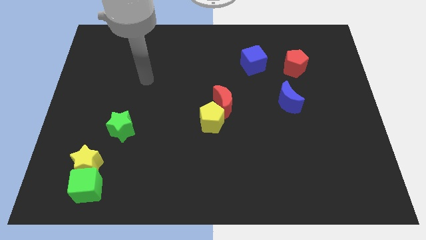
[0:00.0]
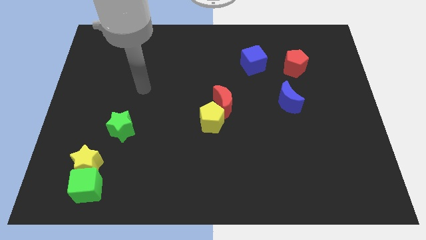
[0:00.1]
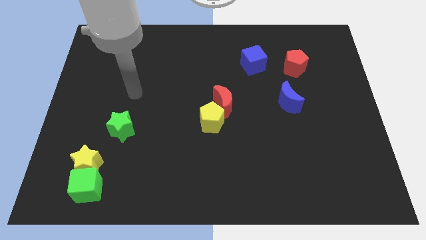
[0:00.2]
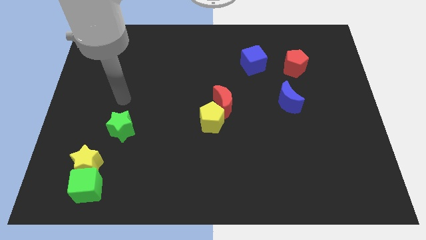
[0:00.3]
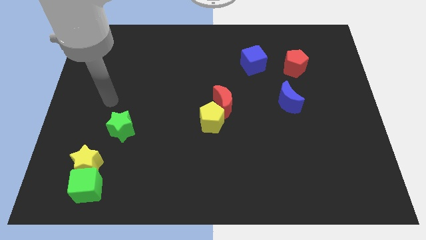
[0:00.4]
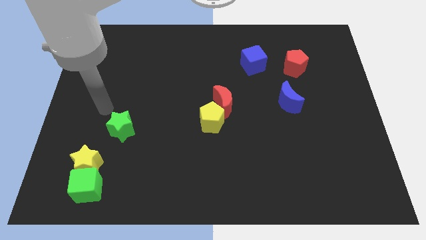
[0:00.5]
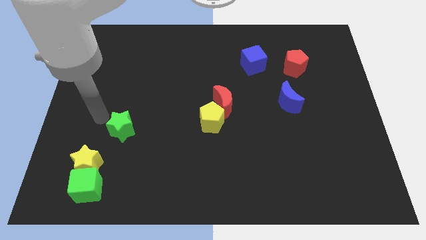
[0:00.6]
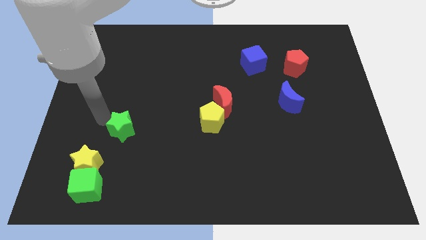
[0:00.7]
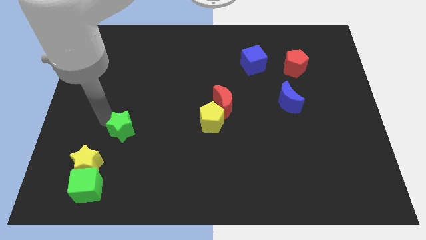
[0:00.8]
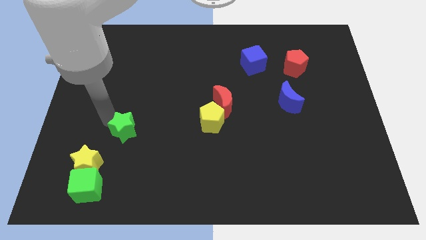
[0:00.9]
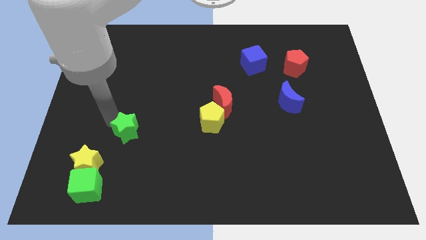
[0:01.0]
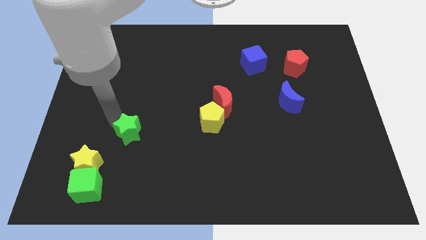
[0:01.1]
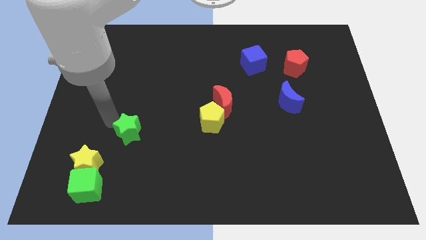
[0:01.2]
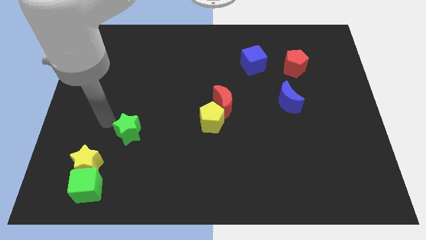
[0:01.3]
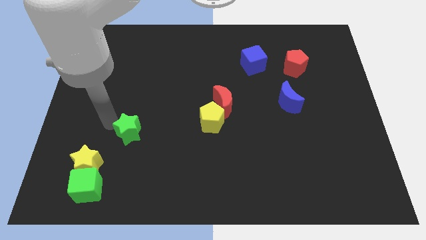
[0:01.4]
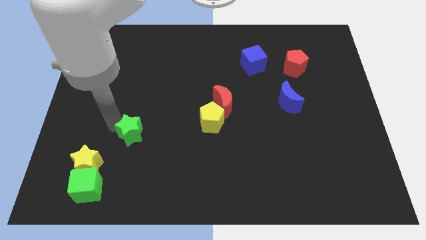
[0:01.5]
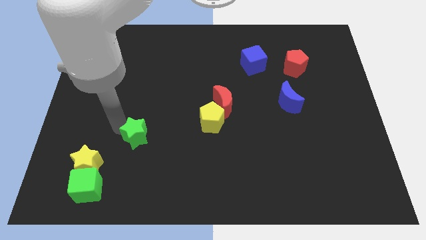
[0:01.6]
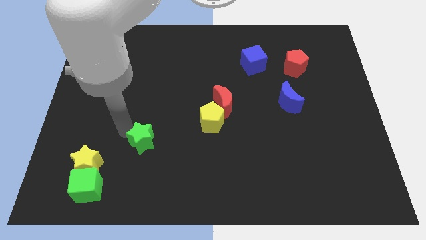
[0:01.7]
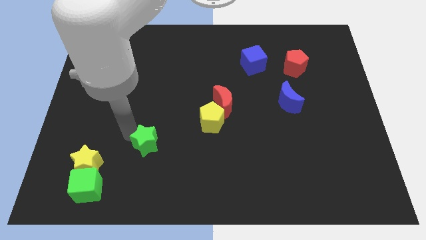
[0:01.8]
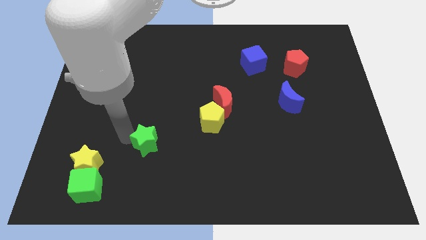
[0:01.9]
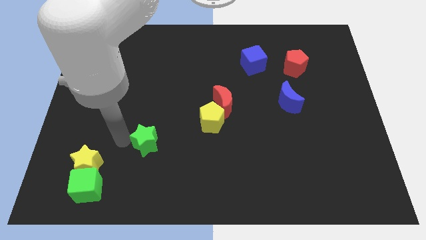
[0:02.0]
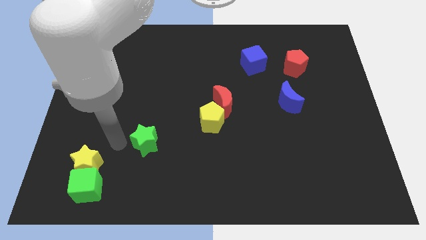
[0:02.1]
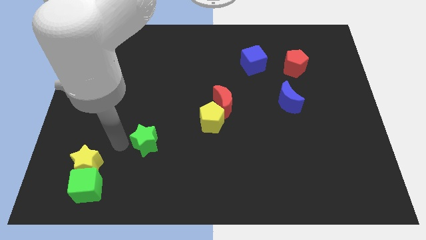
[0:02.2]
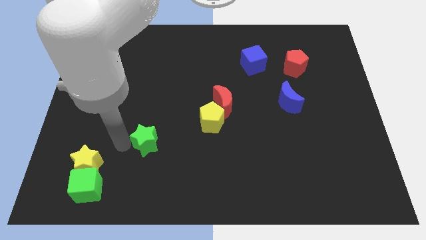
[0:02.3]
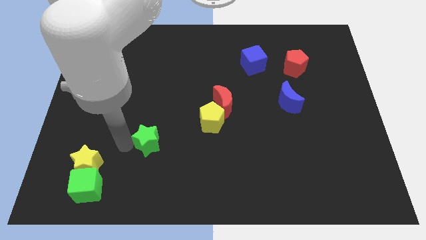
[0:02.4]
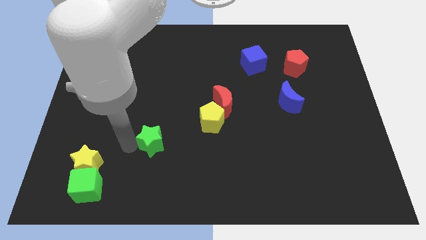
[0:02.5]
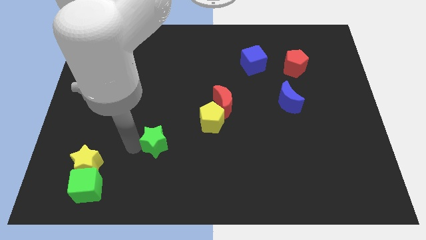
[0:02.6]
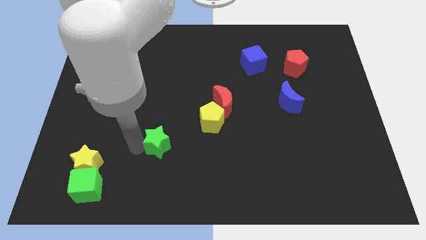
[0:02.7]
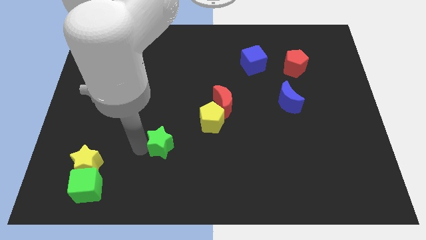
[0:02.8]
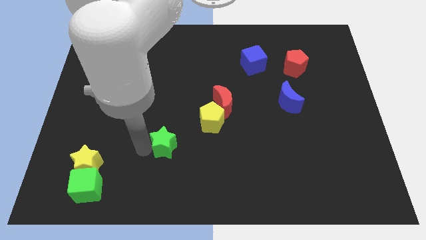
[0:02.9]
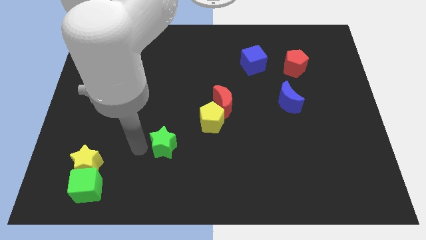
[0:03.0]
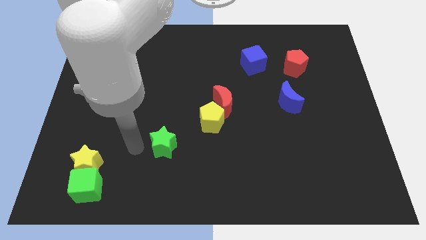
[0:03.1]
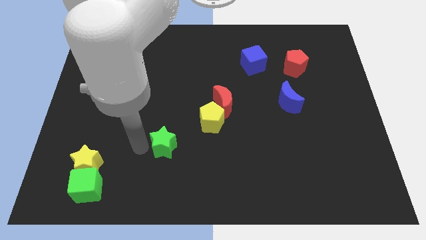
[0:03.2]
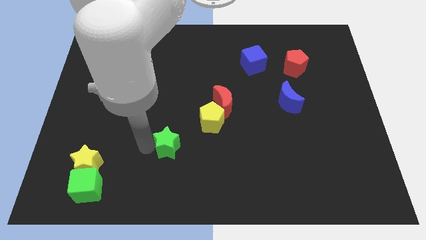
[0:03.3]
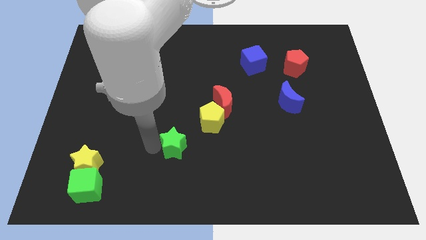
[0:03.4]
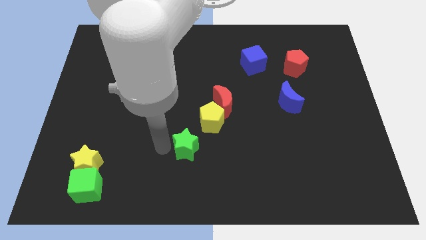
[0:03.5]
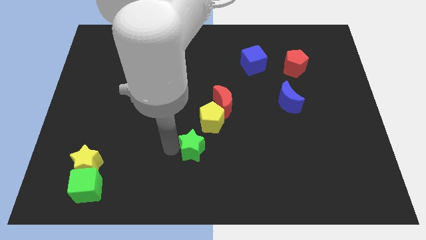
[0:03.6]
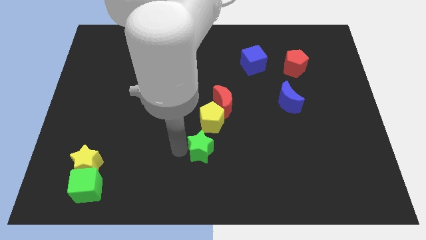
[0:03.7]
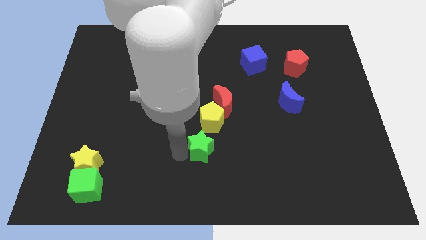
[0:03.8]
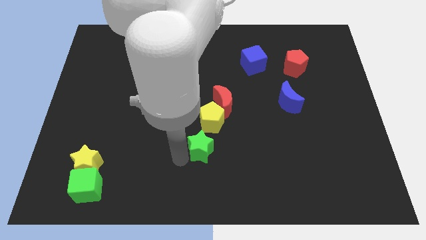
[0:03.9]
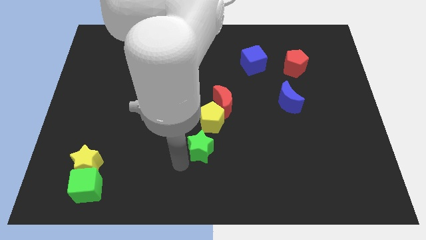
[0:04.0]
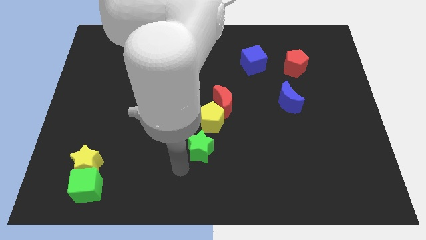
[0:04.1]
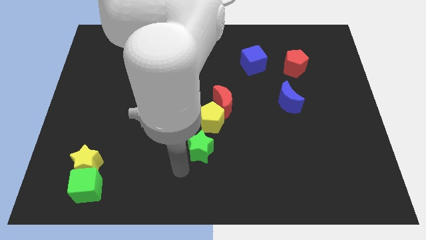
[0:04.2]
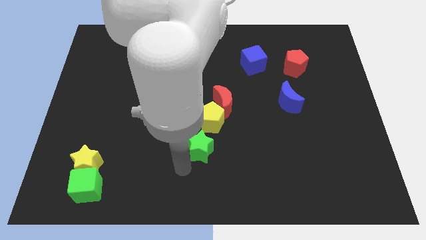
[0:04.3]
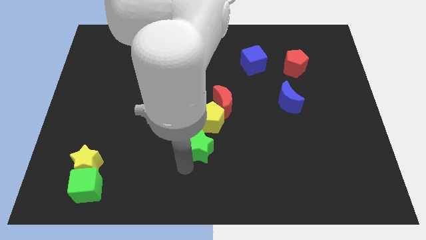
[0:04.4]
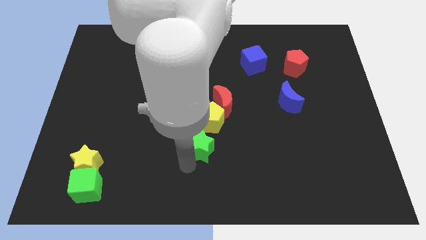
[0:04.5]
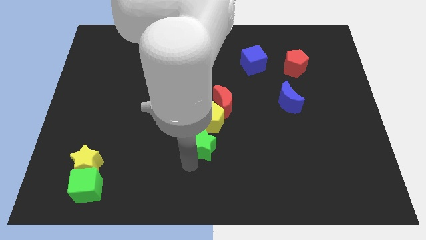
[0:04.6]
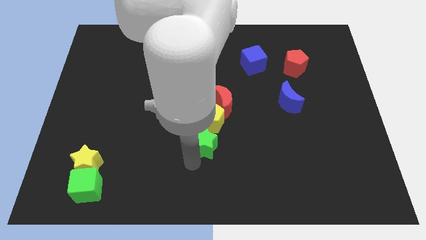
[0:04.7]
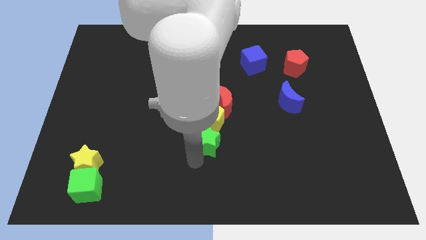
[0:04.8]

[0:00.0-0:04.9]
put the green star to the bottom right side of the yellow pentagon

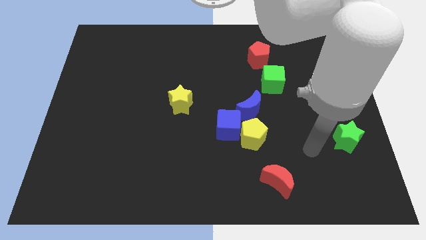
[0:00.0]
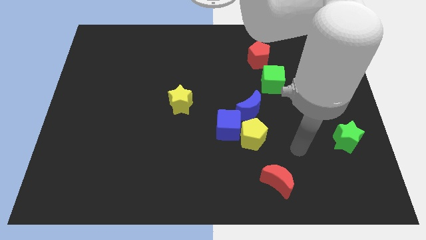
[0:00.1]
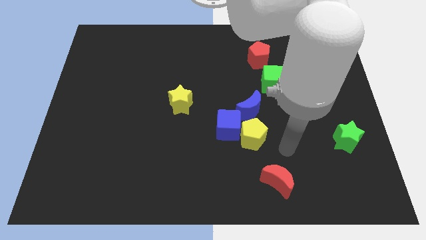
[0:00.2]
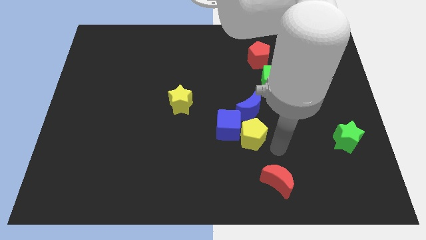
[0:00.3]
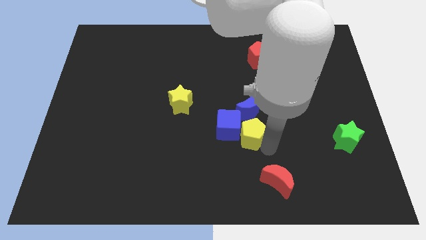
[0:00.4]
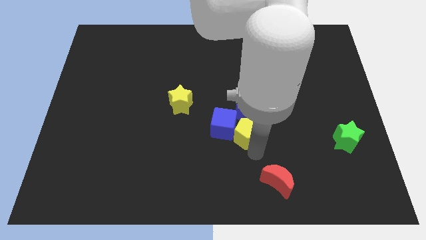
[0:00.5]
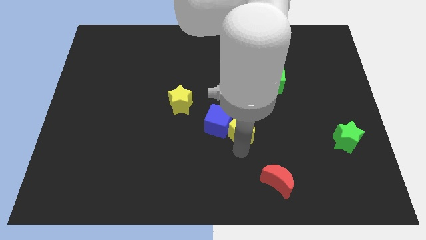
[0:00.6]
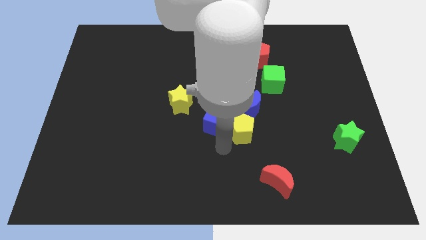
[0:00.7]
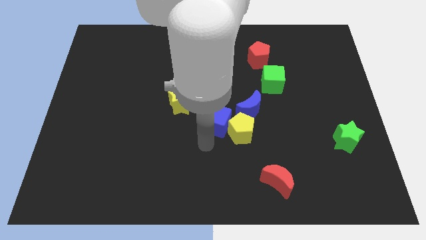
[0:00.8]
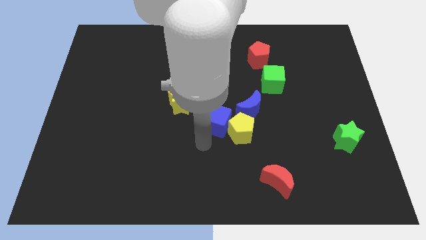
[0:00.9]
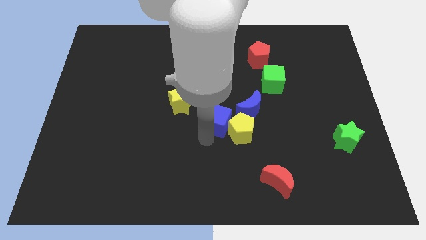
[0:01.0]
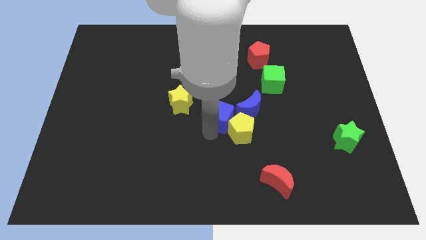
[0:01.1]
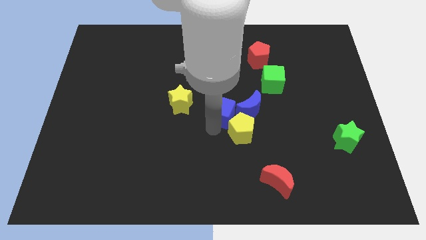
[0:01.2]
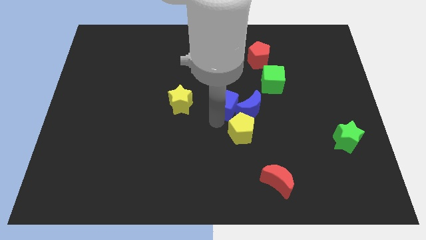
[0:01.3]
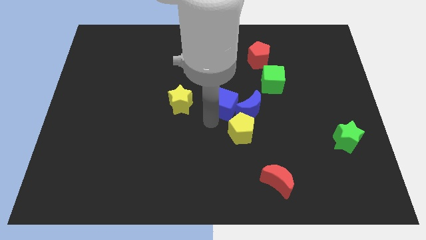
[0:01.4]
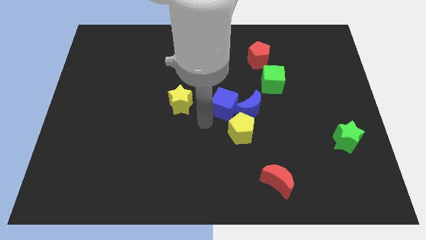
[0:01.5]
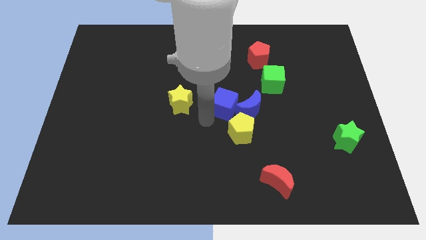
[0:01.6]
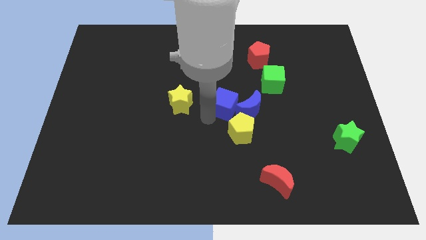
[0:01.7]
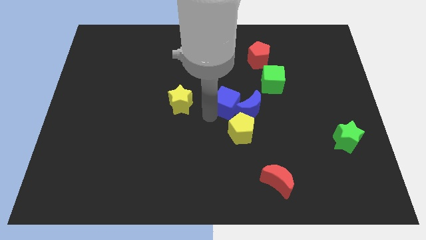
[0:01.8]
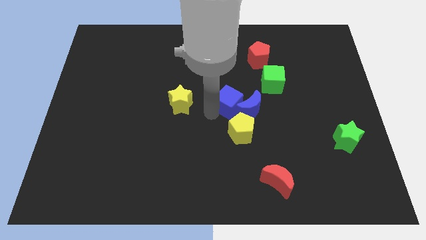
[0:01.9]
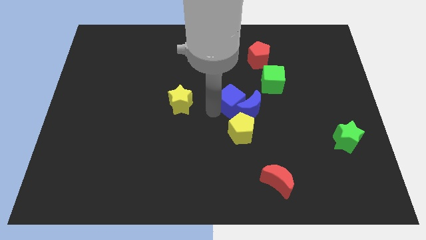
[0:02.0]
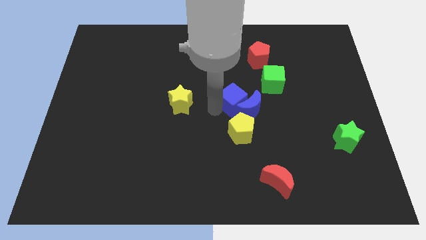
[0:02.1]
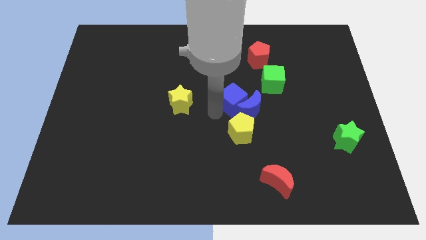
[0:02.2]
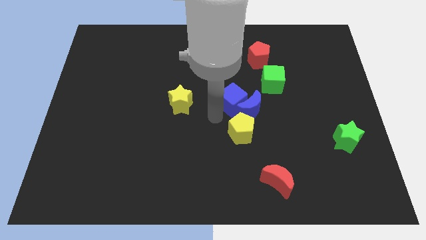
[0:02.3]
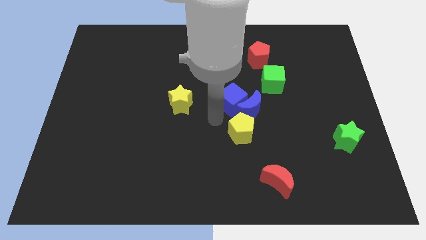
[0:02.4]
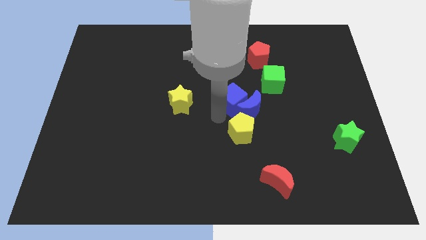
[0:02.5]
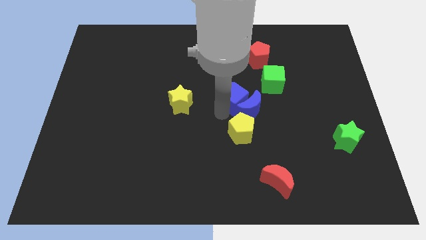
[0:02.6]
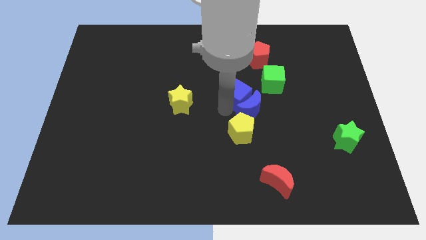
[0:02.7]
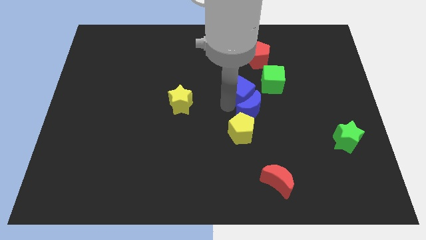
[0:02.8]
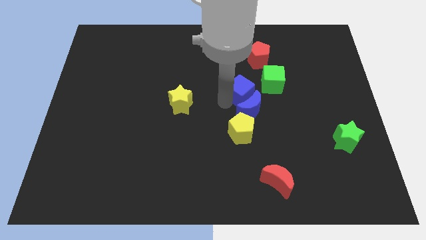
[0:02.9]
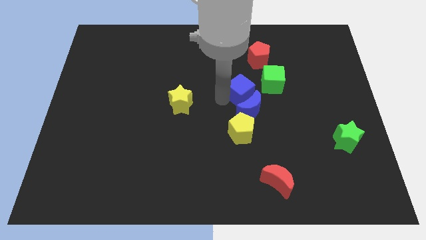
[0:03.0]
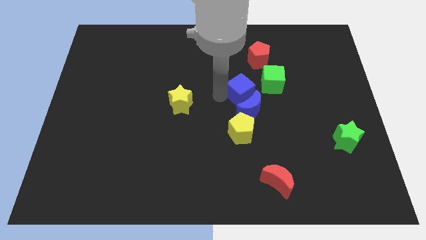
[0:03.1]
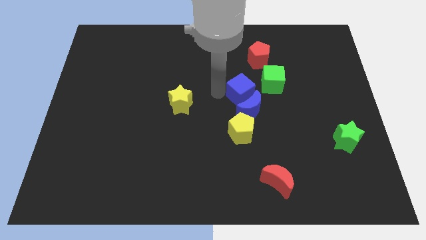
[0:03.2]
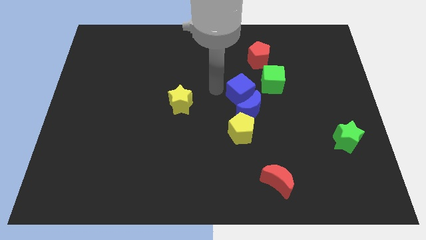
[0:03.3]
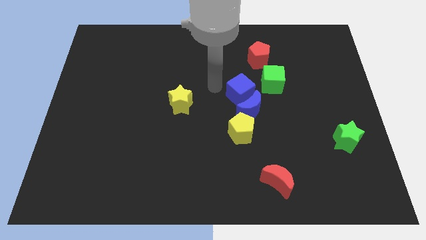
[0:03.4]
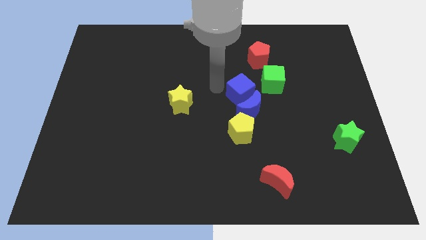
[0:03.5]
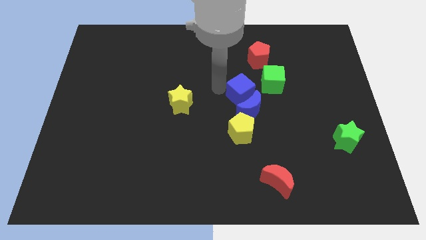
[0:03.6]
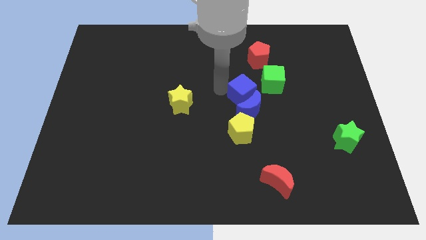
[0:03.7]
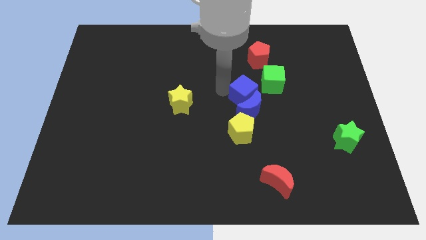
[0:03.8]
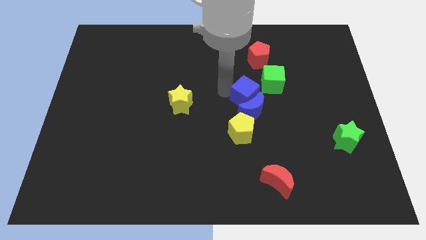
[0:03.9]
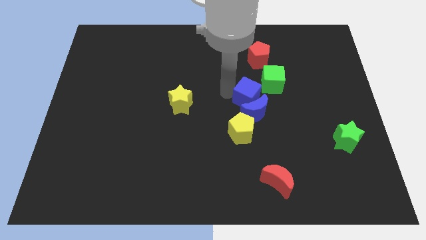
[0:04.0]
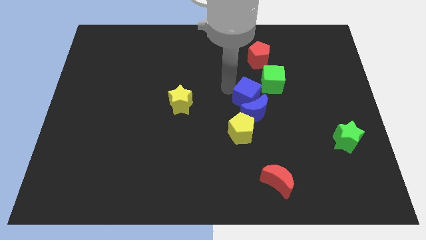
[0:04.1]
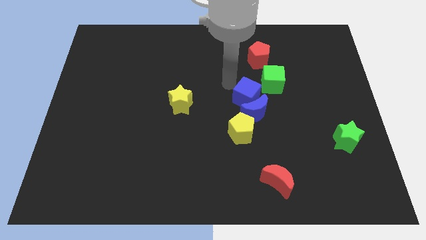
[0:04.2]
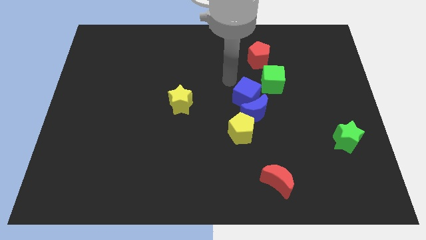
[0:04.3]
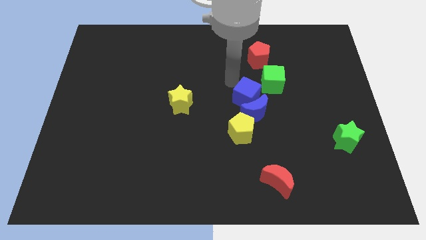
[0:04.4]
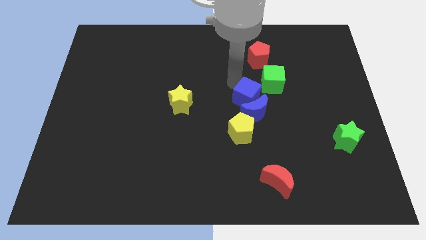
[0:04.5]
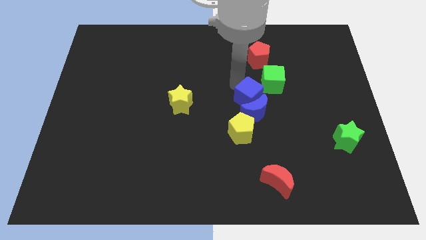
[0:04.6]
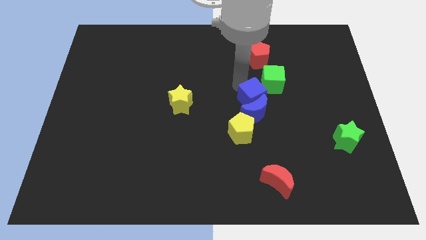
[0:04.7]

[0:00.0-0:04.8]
push the blue cube diagonally up and to the right of the yellow pentagon
